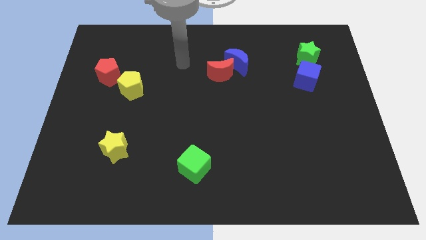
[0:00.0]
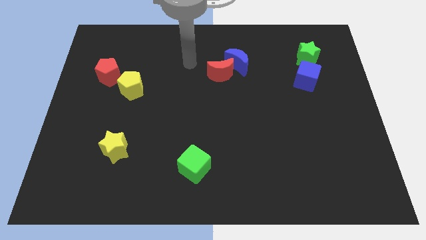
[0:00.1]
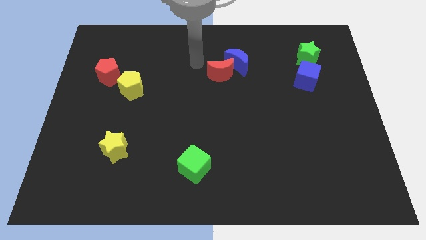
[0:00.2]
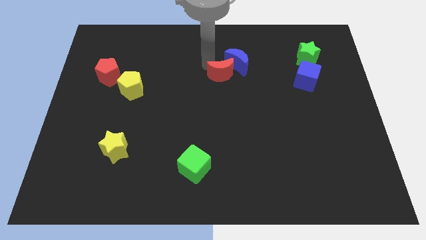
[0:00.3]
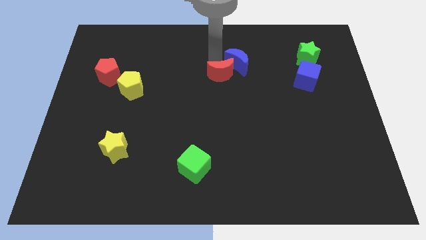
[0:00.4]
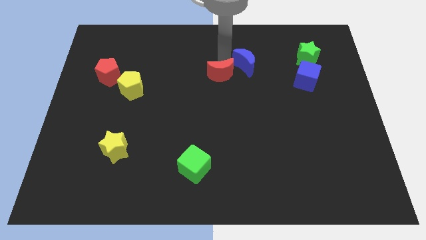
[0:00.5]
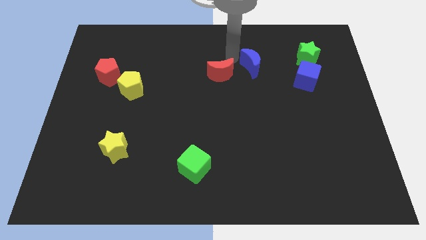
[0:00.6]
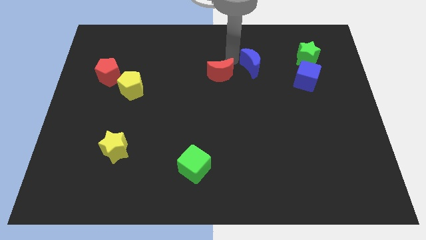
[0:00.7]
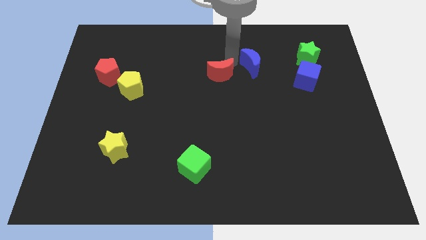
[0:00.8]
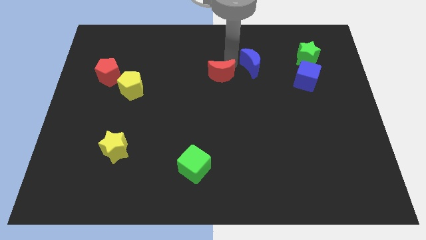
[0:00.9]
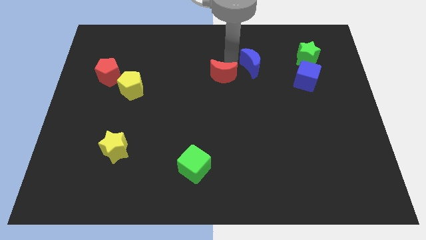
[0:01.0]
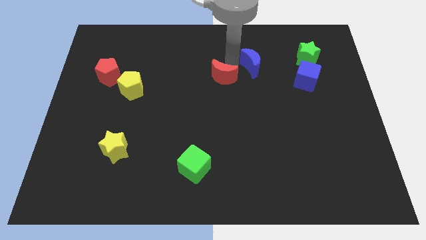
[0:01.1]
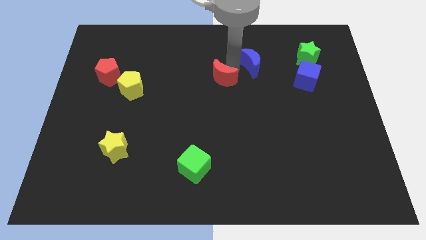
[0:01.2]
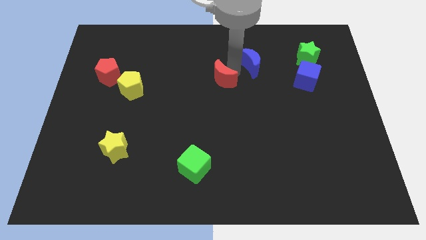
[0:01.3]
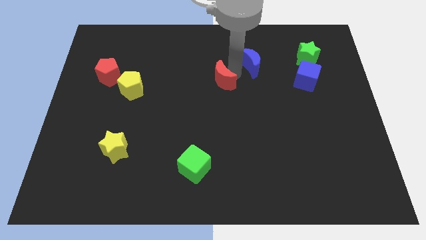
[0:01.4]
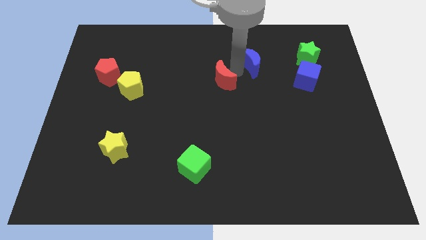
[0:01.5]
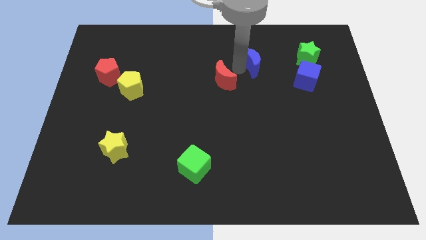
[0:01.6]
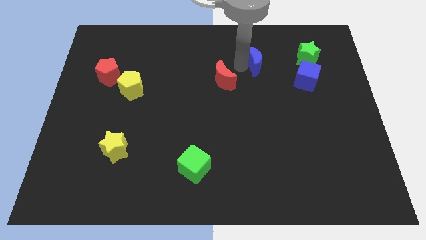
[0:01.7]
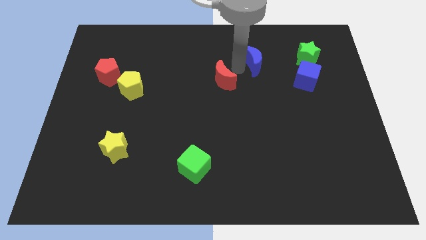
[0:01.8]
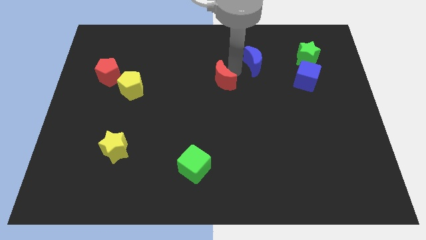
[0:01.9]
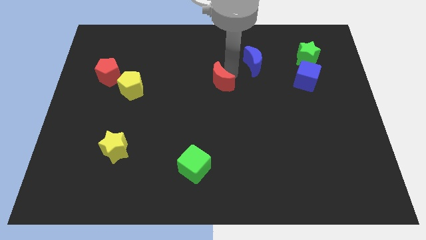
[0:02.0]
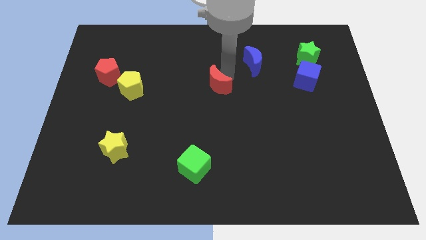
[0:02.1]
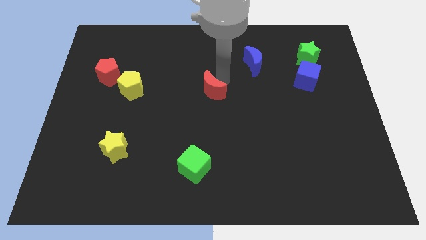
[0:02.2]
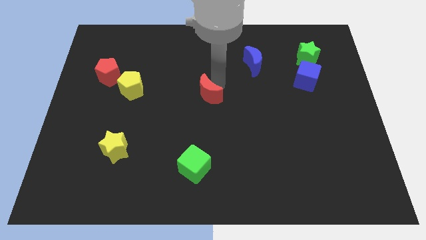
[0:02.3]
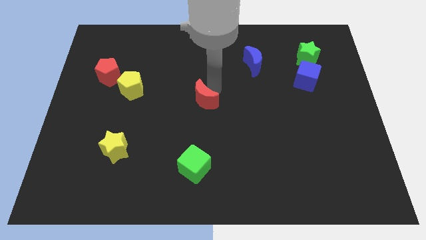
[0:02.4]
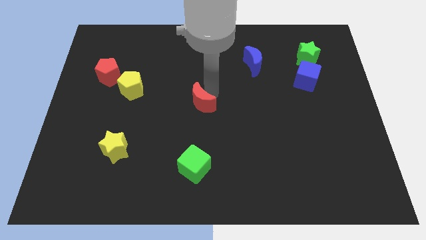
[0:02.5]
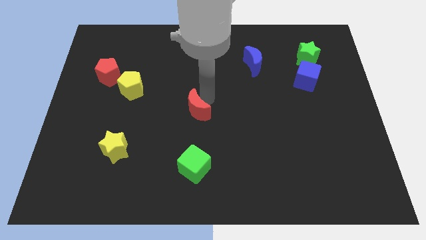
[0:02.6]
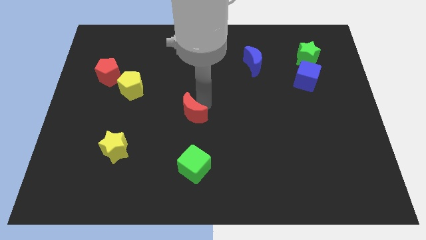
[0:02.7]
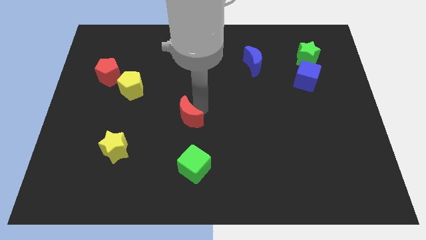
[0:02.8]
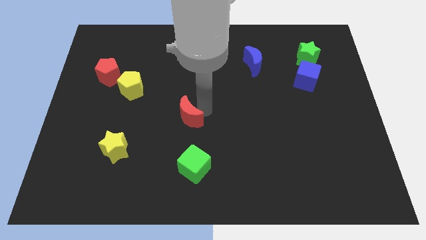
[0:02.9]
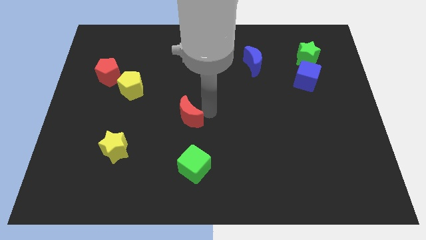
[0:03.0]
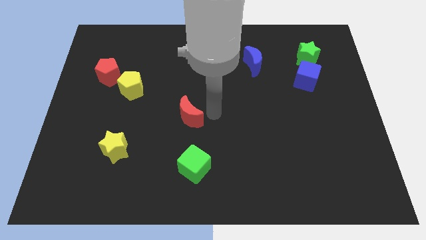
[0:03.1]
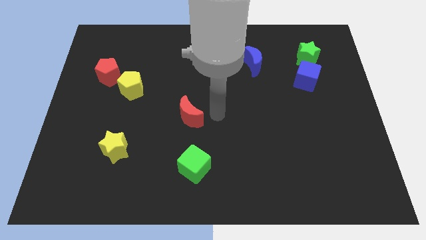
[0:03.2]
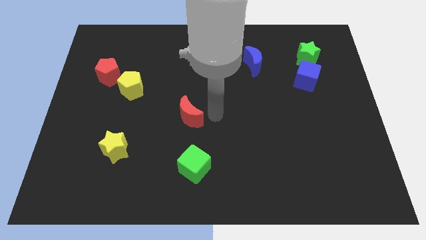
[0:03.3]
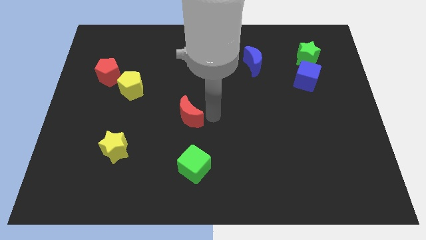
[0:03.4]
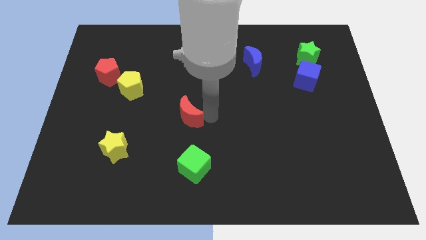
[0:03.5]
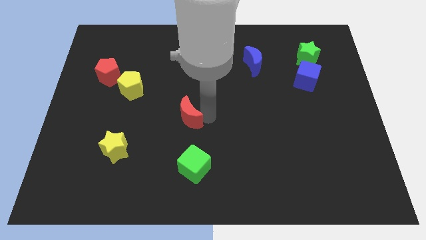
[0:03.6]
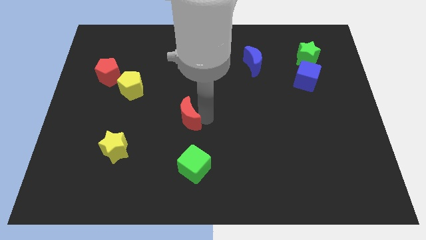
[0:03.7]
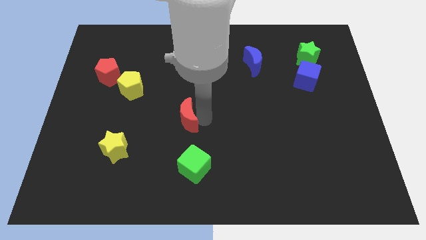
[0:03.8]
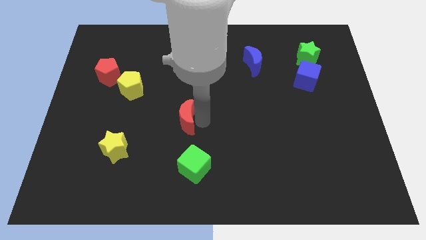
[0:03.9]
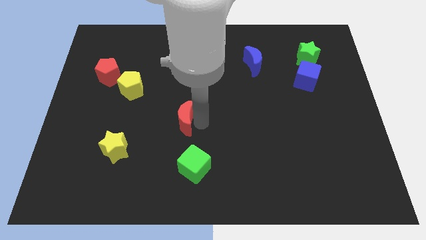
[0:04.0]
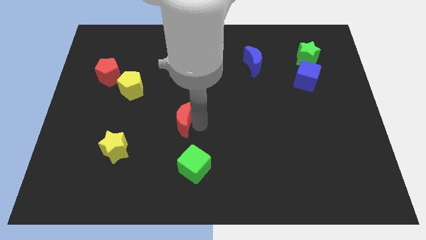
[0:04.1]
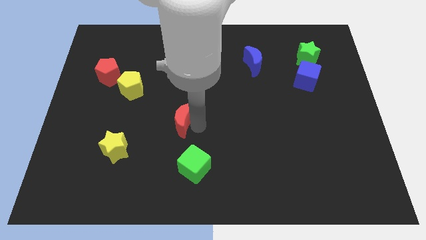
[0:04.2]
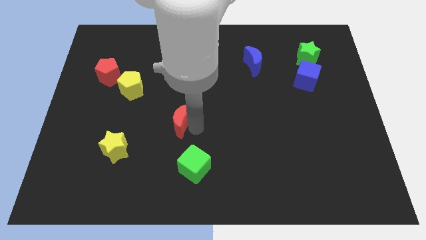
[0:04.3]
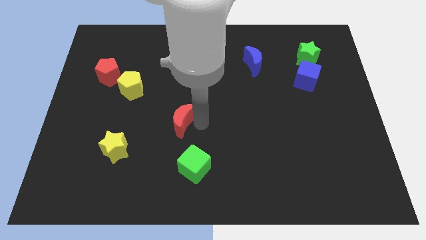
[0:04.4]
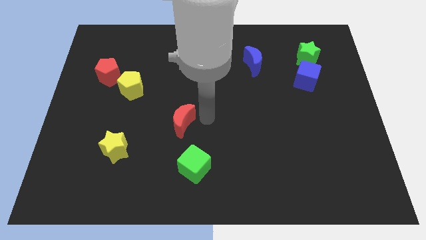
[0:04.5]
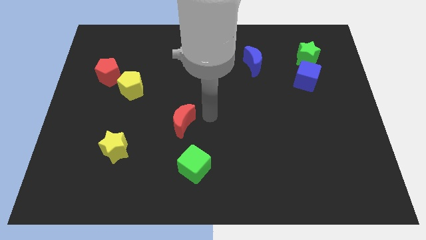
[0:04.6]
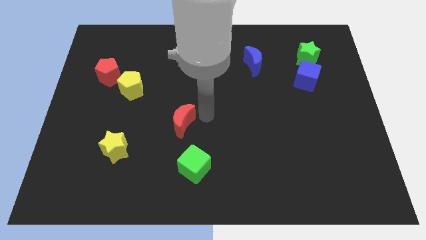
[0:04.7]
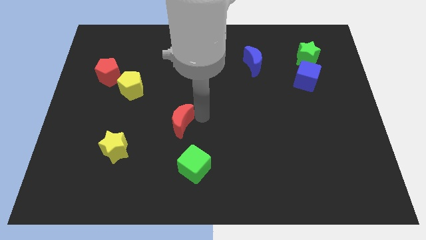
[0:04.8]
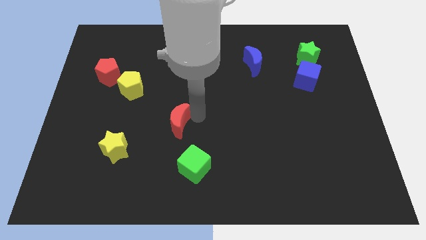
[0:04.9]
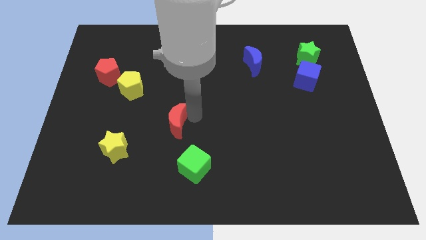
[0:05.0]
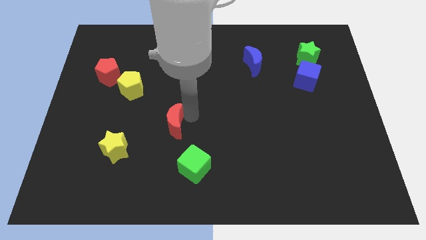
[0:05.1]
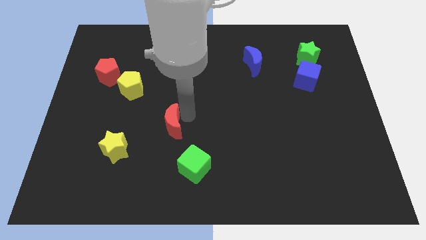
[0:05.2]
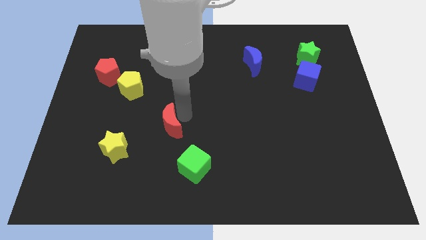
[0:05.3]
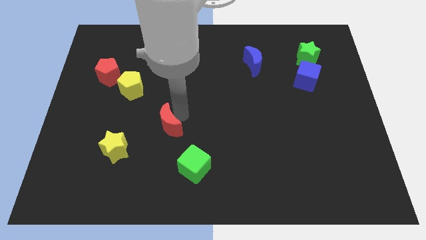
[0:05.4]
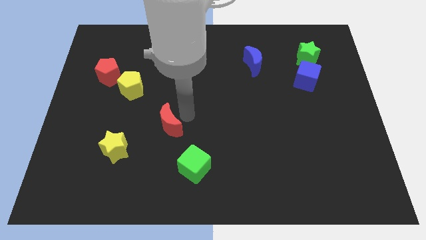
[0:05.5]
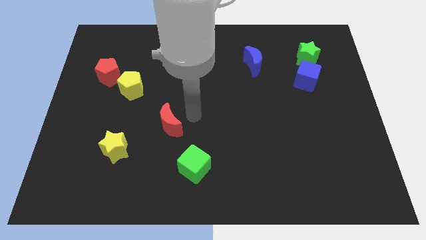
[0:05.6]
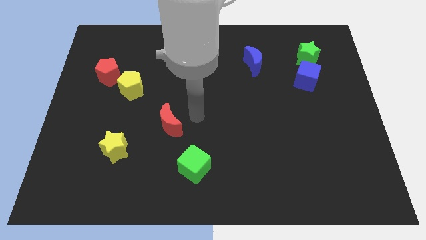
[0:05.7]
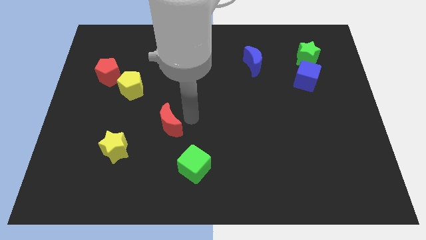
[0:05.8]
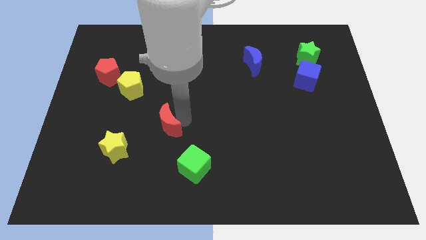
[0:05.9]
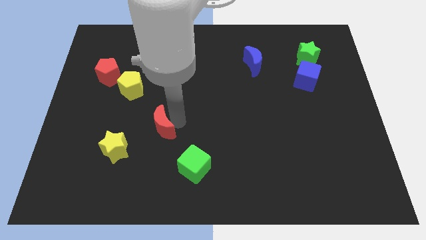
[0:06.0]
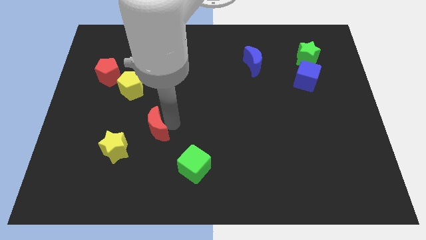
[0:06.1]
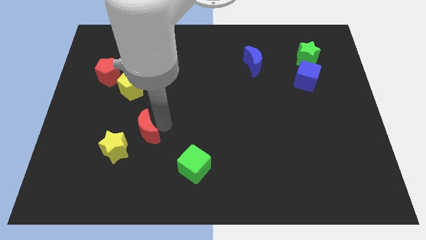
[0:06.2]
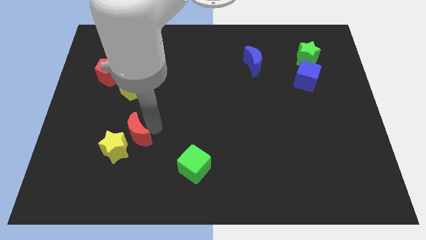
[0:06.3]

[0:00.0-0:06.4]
push the red moon to the yellow star

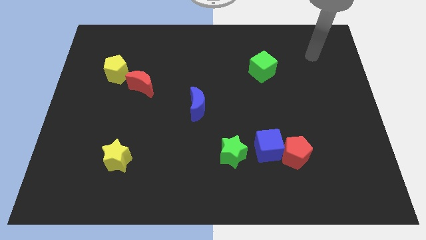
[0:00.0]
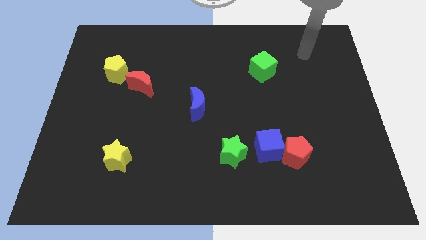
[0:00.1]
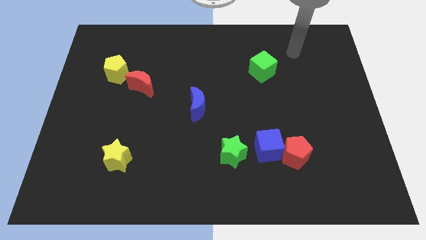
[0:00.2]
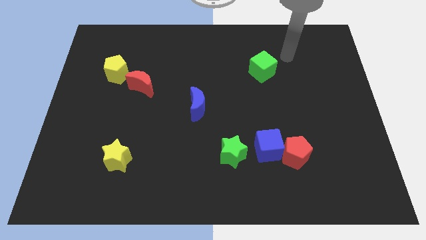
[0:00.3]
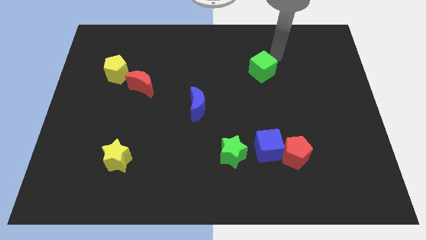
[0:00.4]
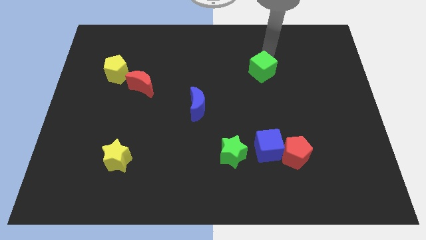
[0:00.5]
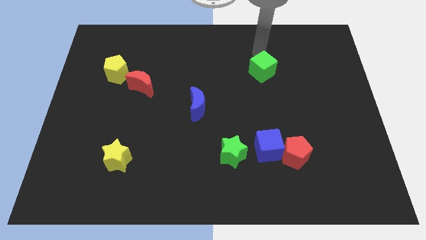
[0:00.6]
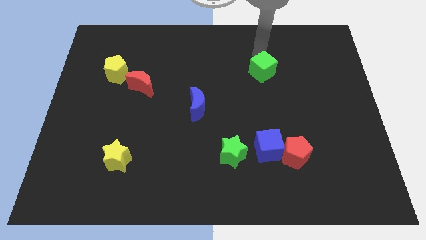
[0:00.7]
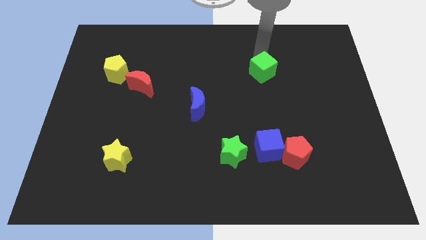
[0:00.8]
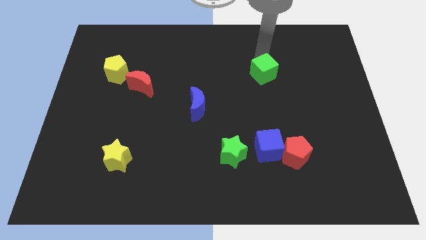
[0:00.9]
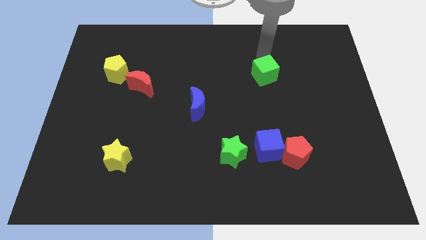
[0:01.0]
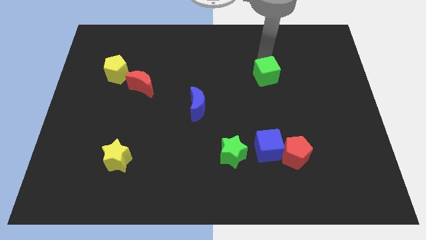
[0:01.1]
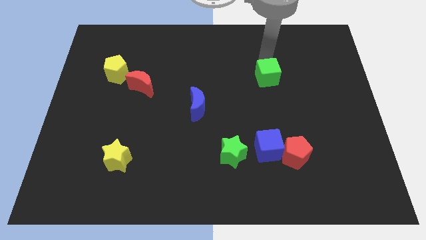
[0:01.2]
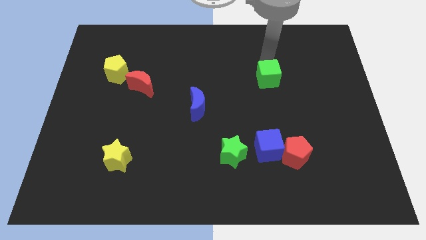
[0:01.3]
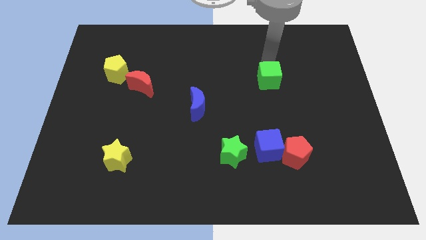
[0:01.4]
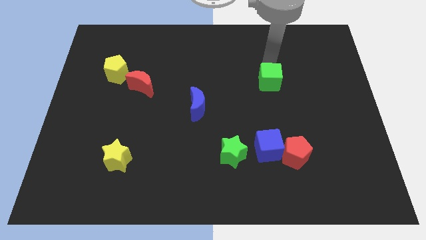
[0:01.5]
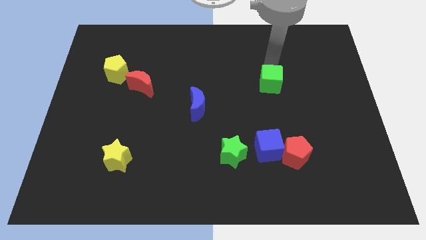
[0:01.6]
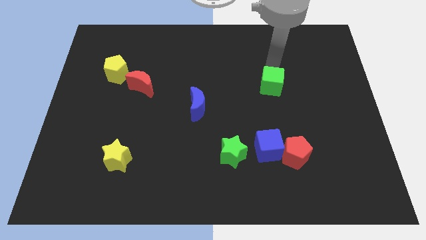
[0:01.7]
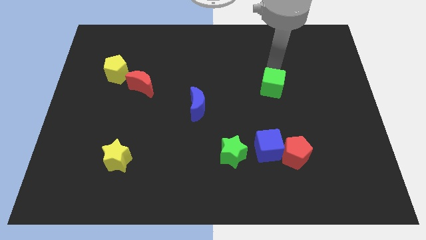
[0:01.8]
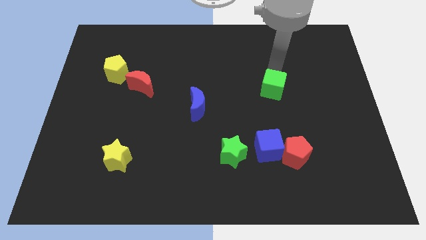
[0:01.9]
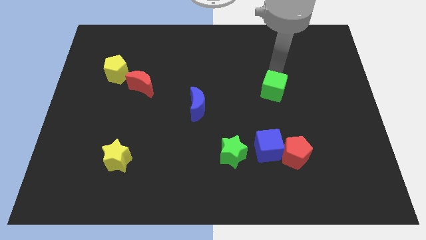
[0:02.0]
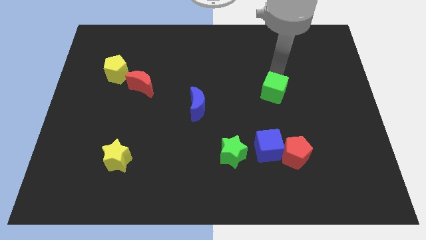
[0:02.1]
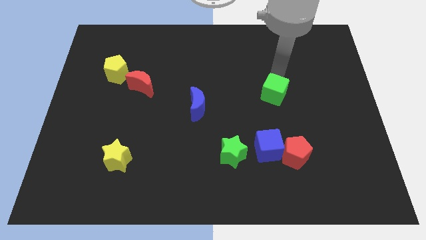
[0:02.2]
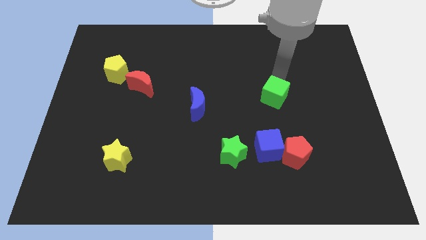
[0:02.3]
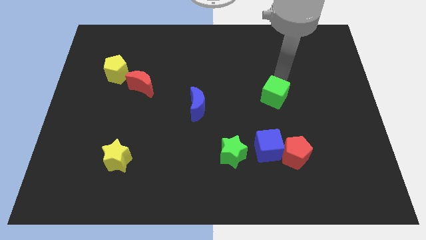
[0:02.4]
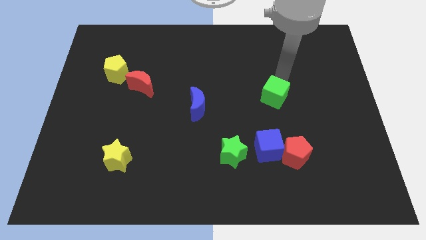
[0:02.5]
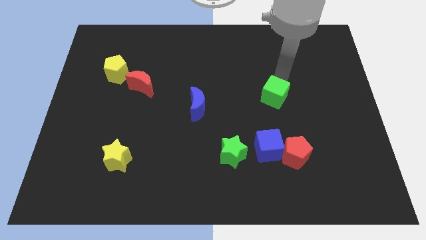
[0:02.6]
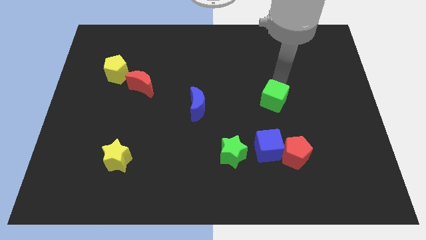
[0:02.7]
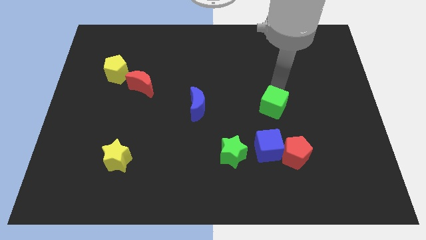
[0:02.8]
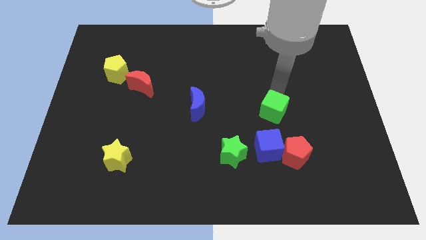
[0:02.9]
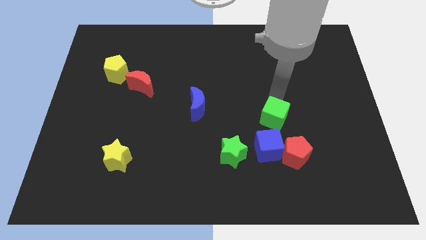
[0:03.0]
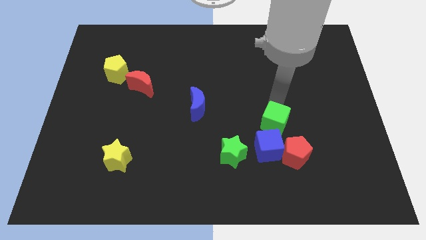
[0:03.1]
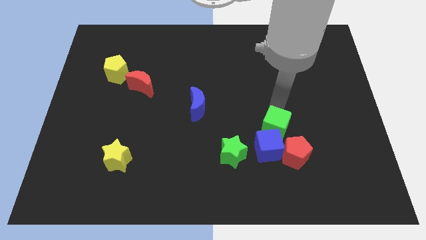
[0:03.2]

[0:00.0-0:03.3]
put the green cube towards the blue cube
